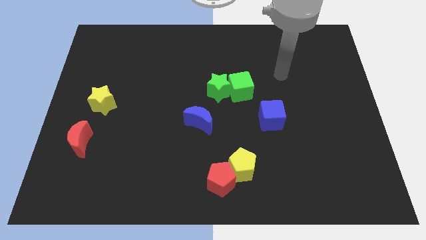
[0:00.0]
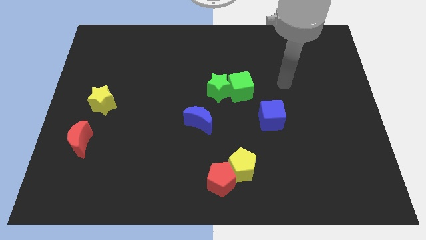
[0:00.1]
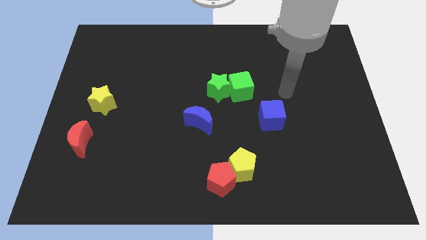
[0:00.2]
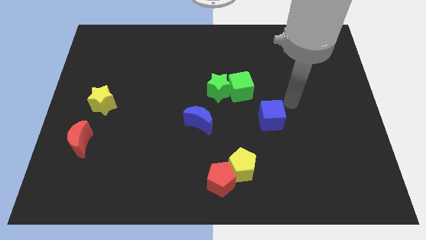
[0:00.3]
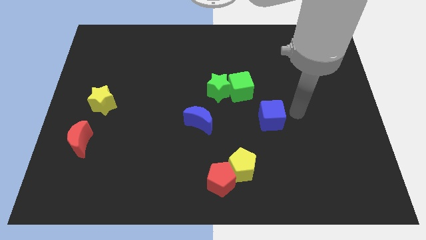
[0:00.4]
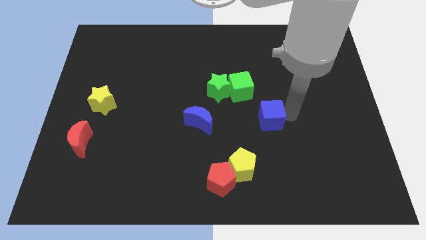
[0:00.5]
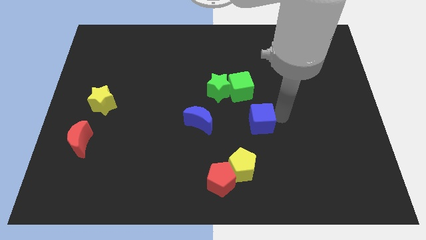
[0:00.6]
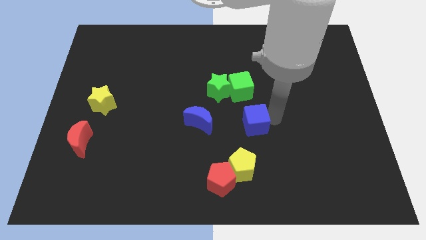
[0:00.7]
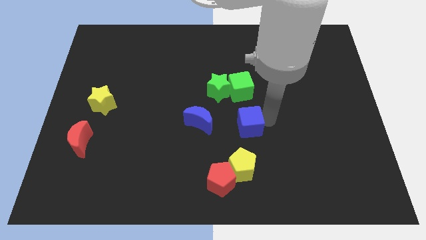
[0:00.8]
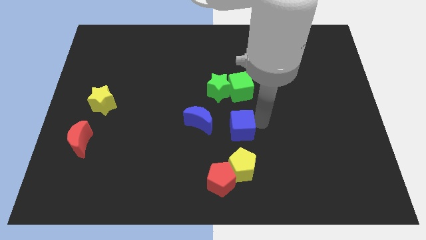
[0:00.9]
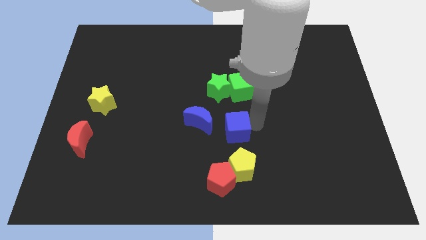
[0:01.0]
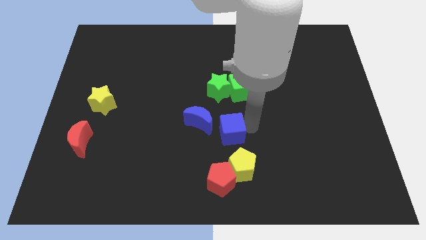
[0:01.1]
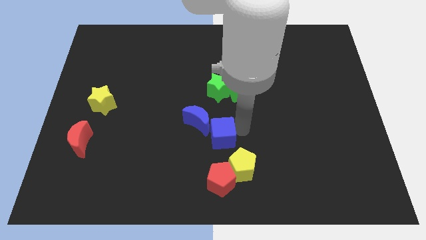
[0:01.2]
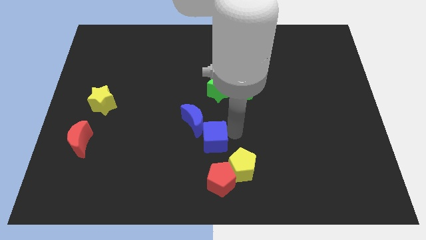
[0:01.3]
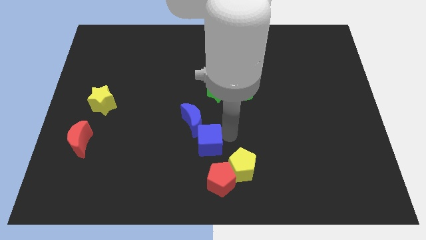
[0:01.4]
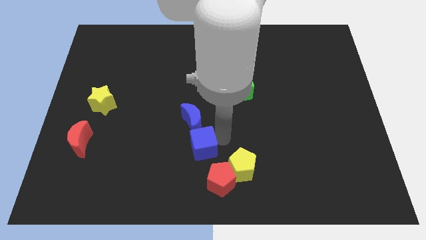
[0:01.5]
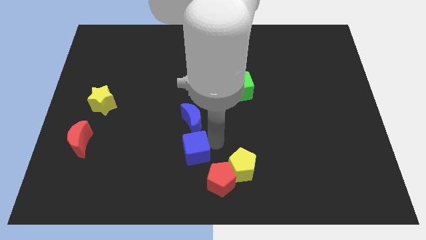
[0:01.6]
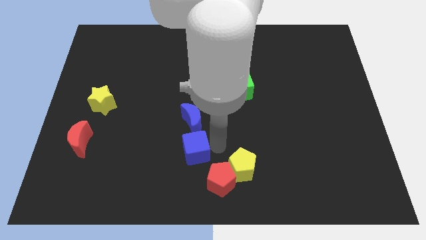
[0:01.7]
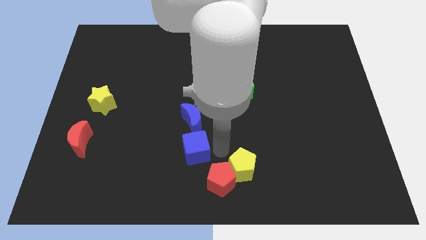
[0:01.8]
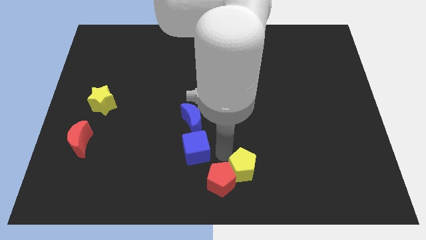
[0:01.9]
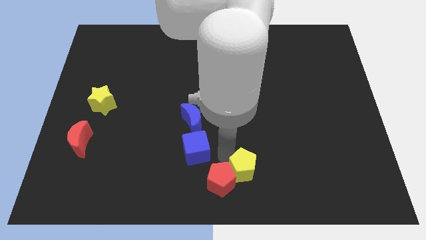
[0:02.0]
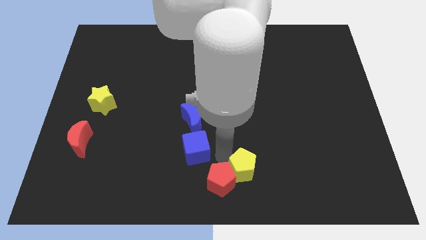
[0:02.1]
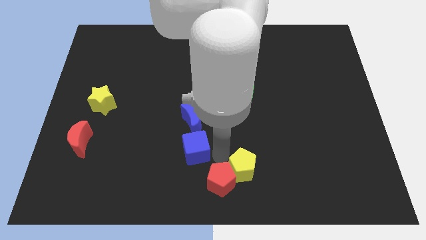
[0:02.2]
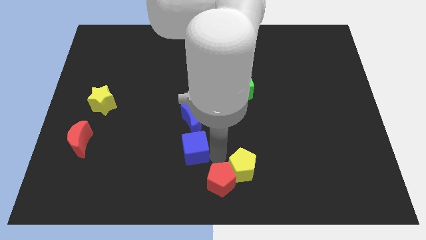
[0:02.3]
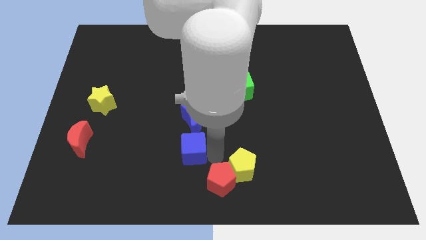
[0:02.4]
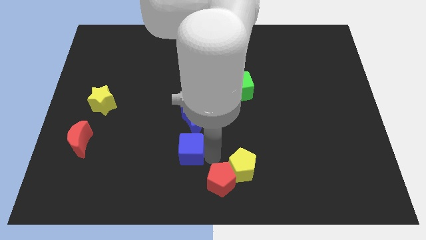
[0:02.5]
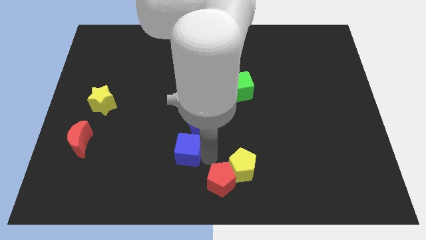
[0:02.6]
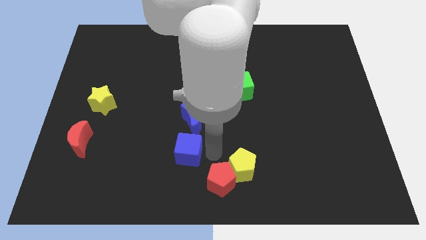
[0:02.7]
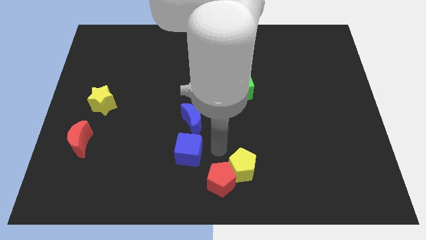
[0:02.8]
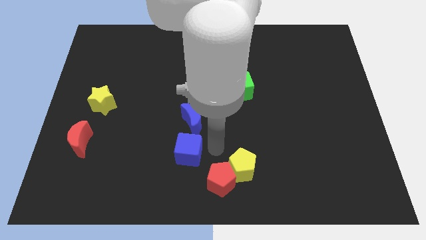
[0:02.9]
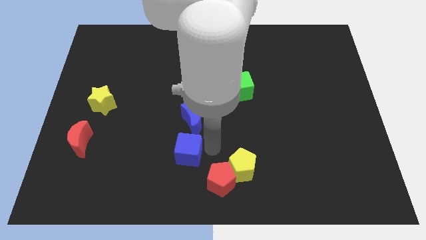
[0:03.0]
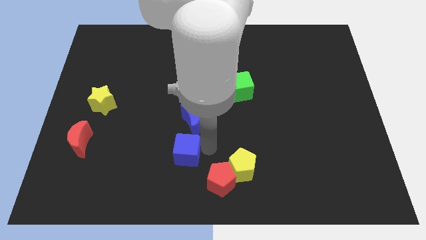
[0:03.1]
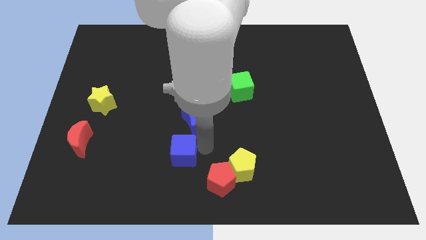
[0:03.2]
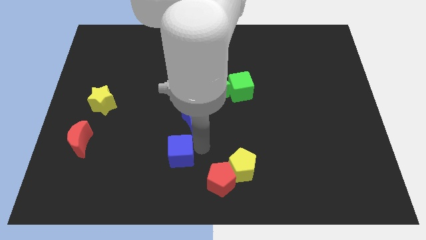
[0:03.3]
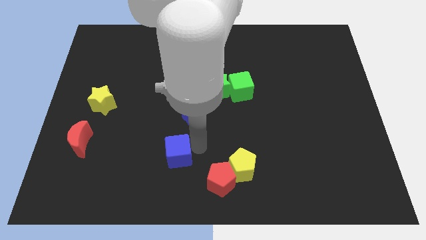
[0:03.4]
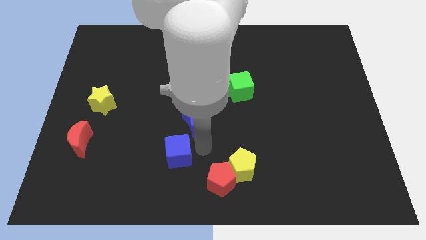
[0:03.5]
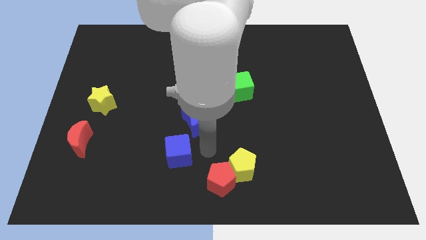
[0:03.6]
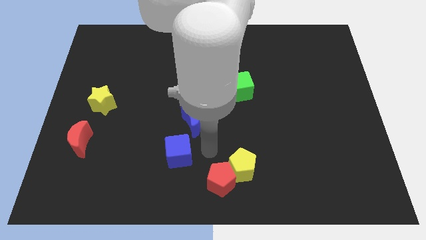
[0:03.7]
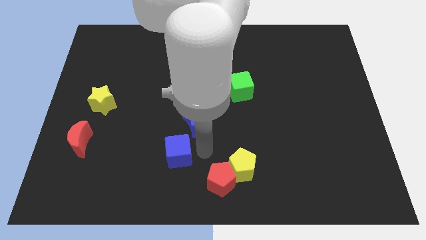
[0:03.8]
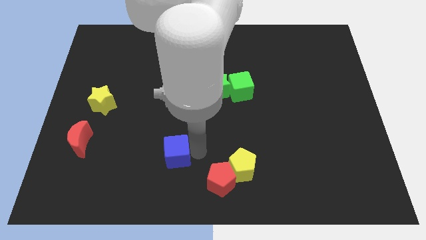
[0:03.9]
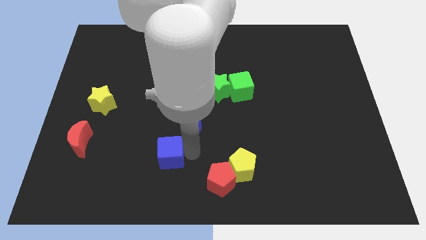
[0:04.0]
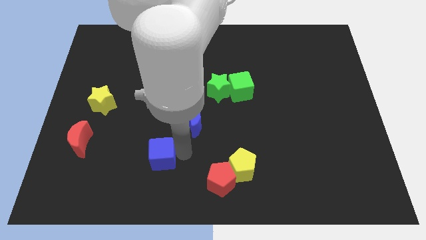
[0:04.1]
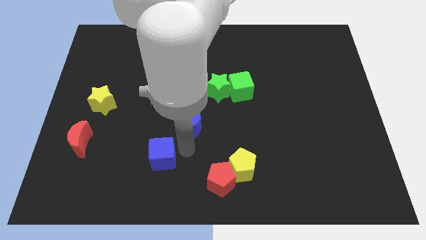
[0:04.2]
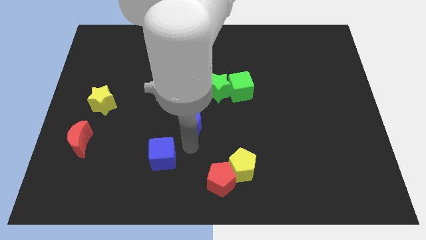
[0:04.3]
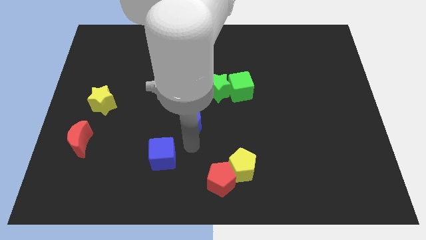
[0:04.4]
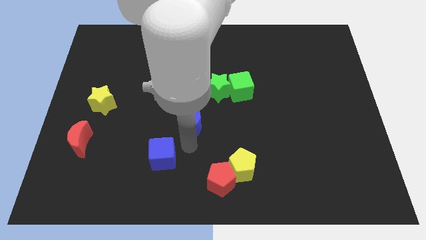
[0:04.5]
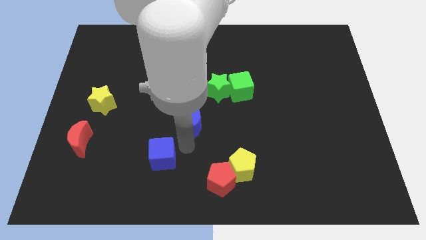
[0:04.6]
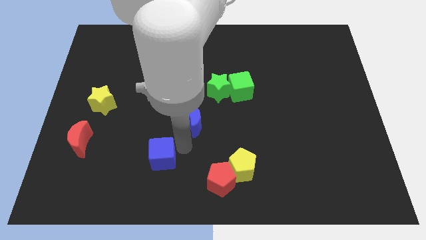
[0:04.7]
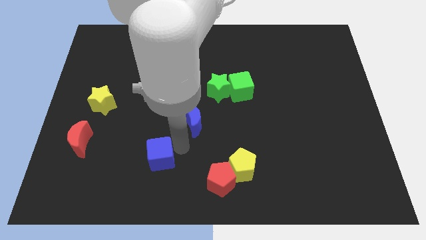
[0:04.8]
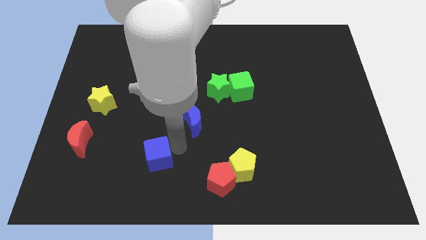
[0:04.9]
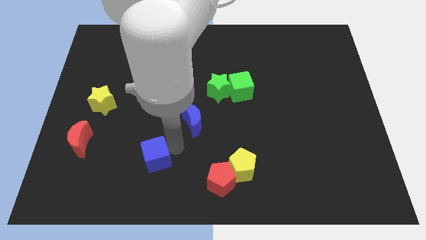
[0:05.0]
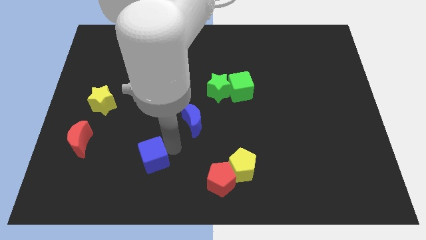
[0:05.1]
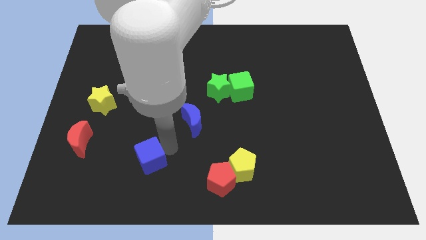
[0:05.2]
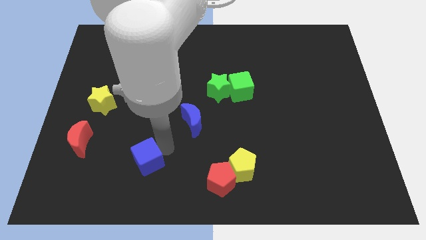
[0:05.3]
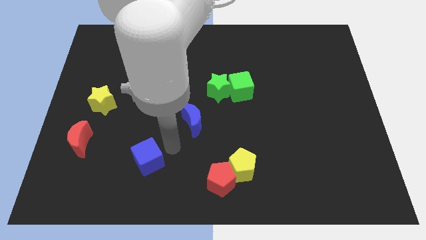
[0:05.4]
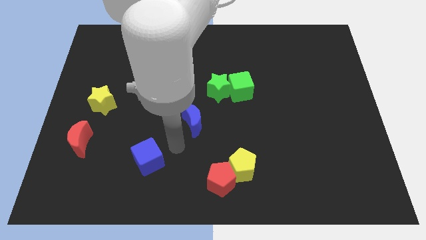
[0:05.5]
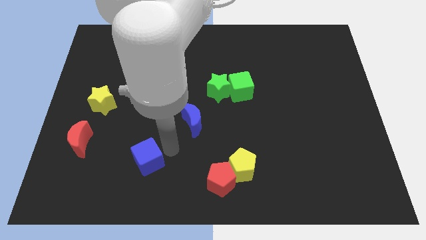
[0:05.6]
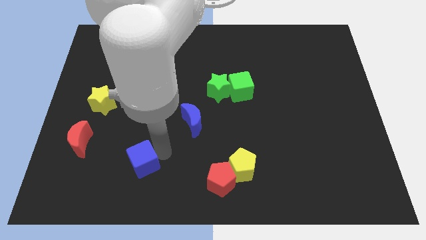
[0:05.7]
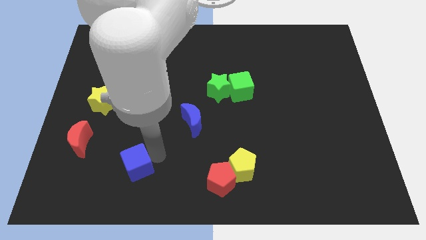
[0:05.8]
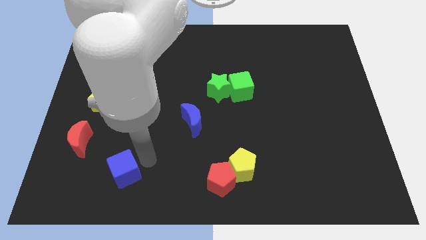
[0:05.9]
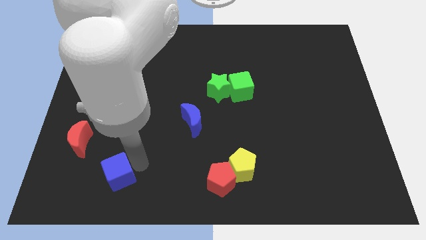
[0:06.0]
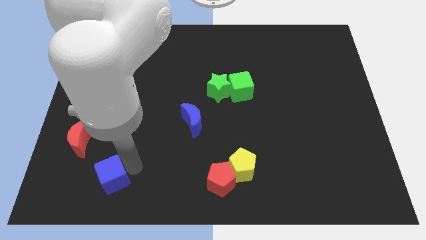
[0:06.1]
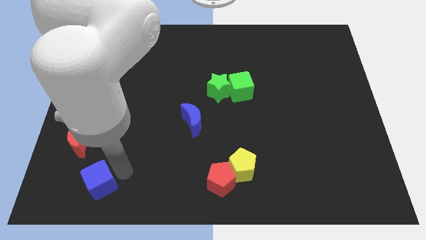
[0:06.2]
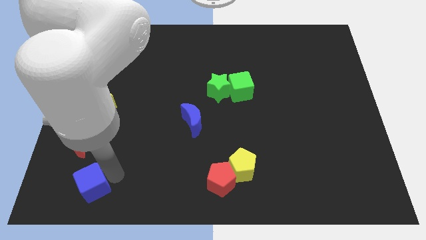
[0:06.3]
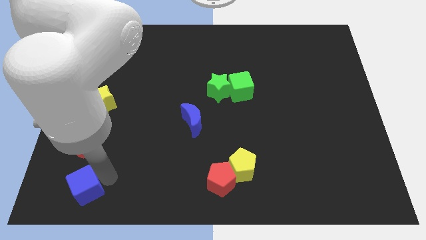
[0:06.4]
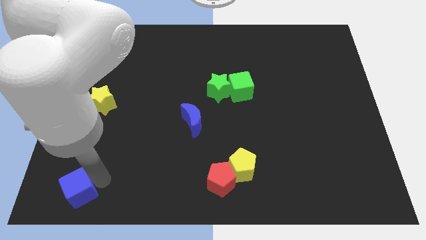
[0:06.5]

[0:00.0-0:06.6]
put the blue cube to the bottom left

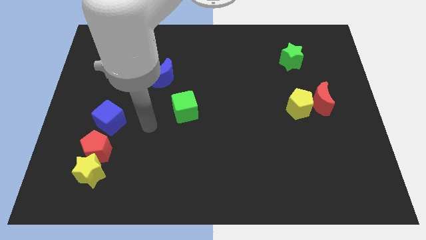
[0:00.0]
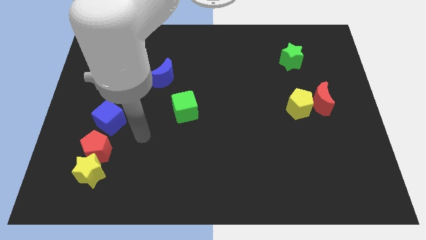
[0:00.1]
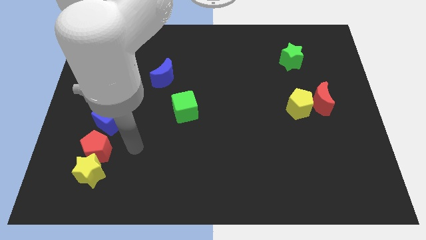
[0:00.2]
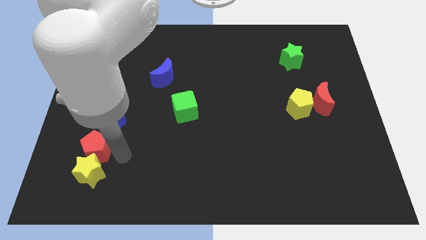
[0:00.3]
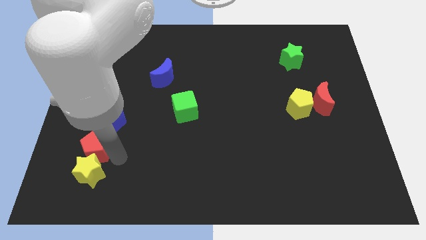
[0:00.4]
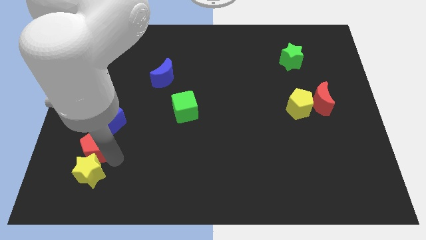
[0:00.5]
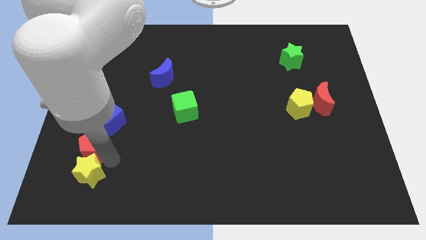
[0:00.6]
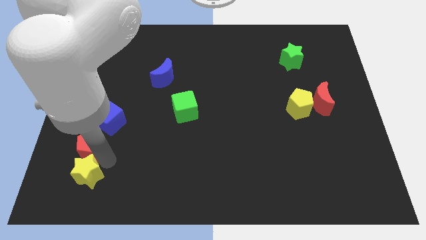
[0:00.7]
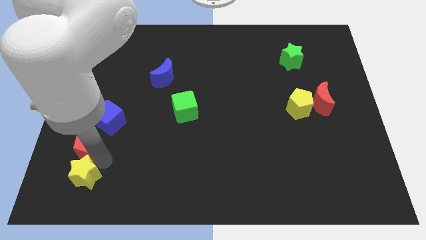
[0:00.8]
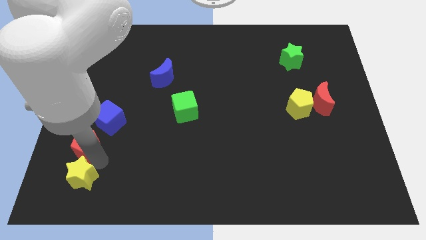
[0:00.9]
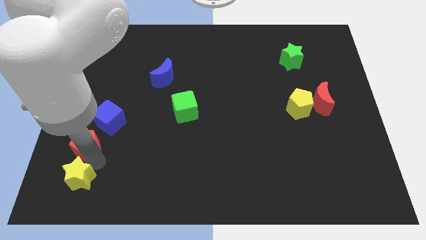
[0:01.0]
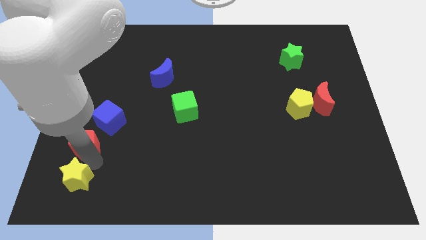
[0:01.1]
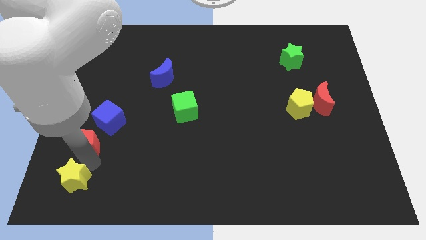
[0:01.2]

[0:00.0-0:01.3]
slide the yellow star to the bottom left of the board
